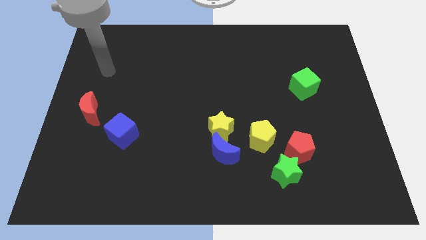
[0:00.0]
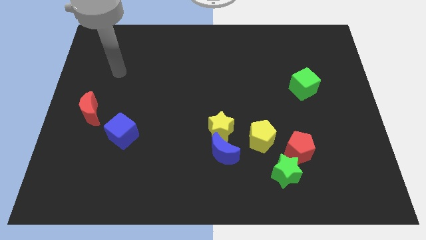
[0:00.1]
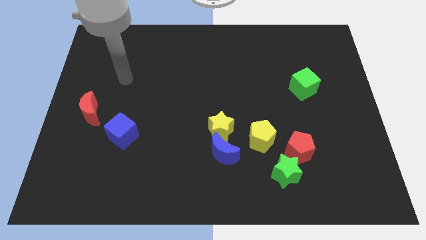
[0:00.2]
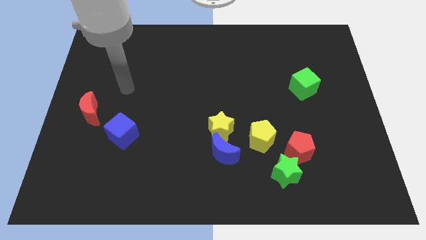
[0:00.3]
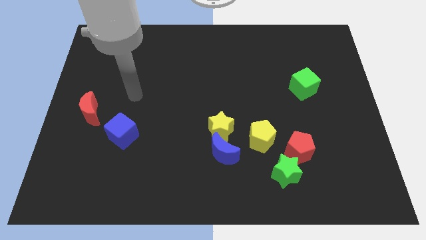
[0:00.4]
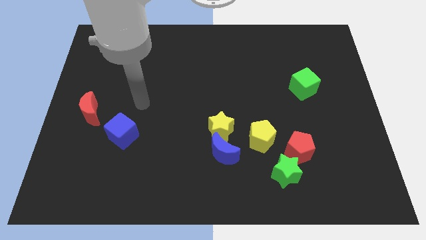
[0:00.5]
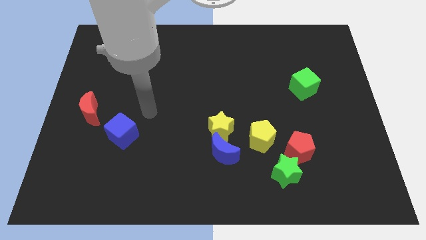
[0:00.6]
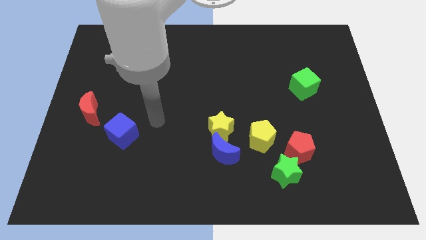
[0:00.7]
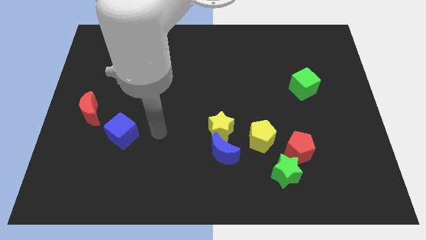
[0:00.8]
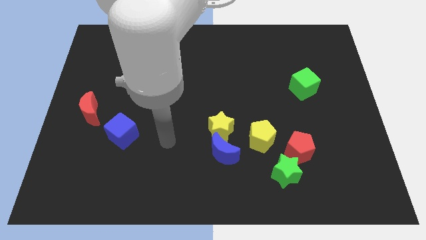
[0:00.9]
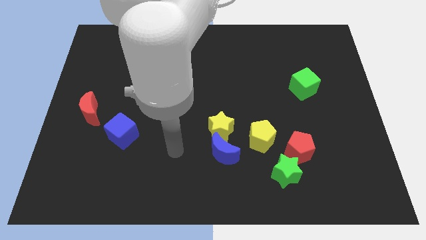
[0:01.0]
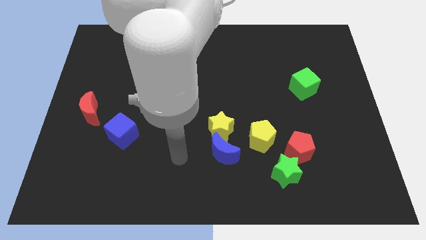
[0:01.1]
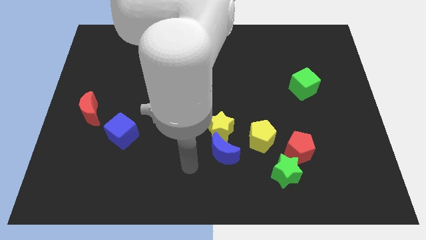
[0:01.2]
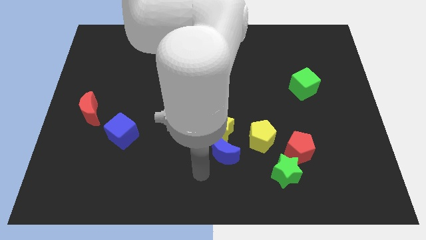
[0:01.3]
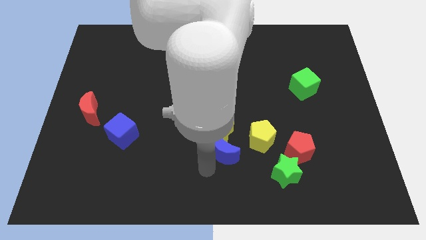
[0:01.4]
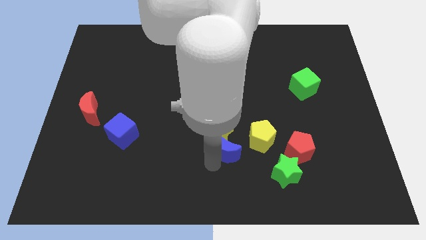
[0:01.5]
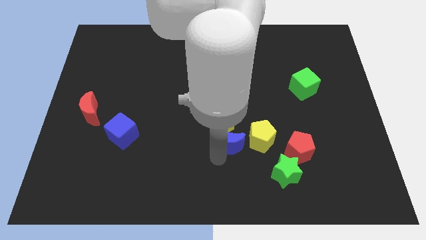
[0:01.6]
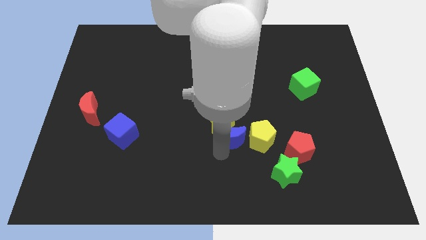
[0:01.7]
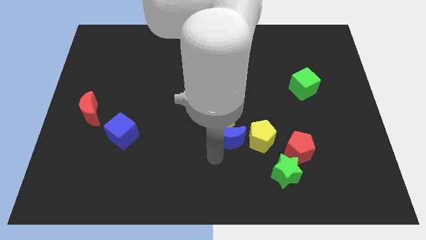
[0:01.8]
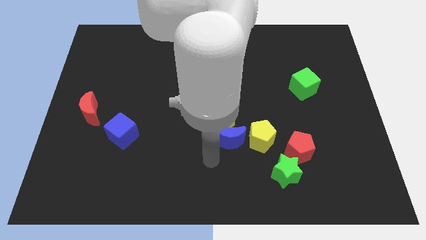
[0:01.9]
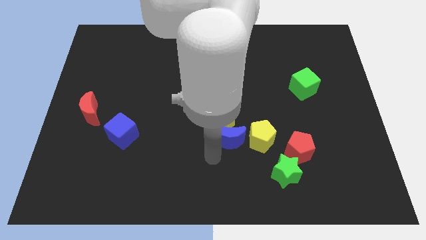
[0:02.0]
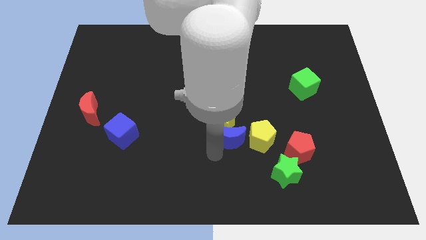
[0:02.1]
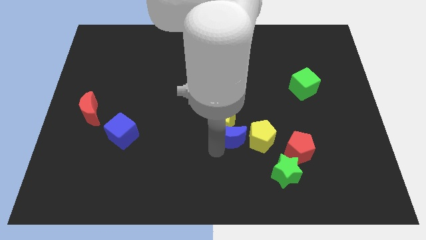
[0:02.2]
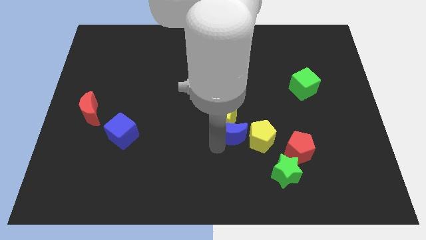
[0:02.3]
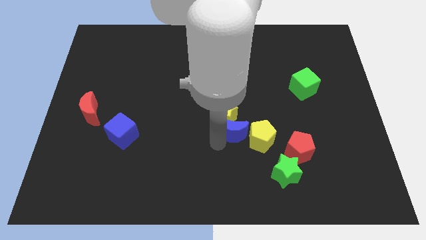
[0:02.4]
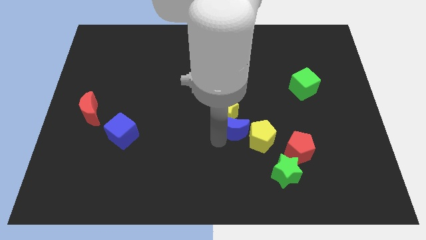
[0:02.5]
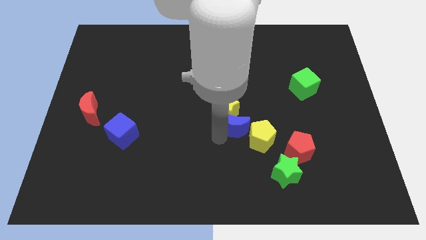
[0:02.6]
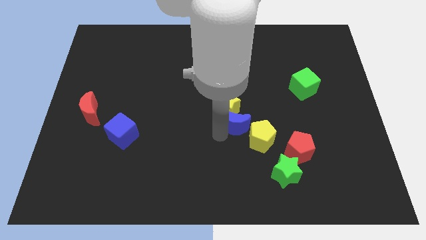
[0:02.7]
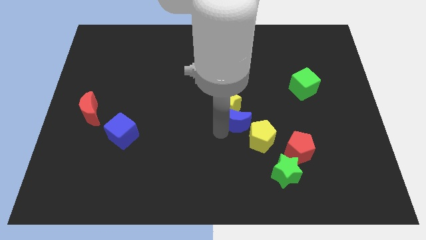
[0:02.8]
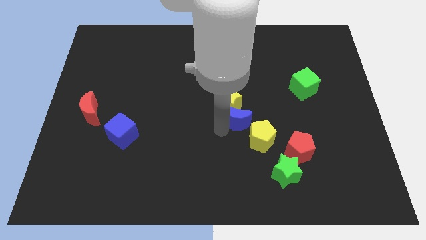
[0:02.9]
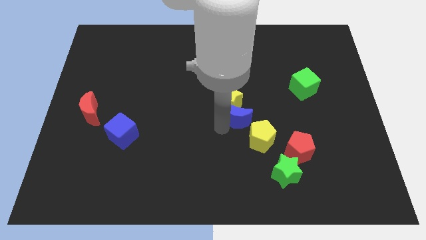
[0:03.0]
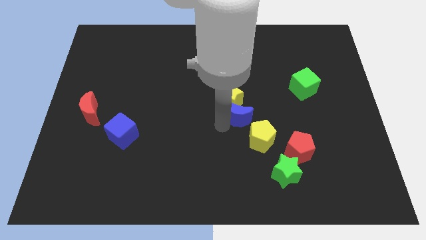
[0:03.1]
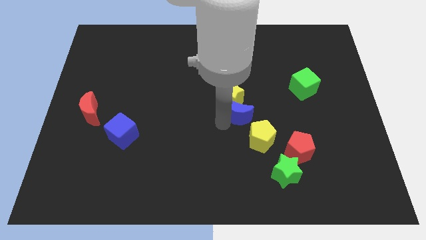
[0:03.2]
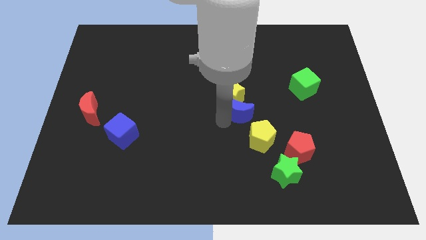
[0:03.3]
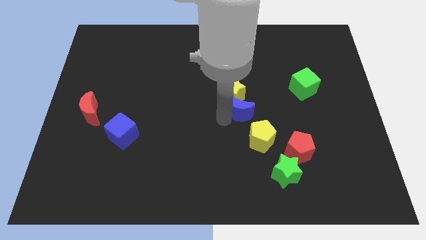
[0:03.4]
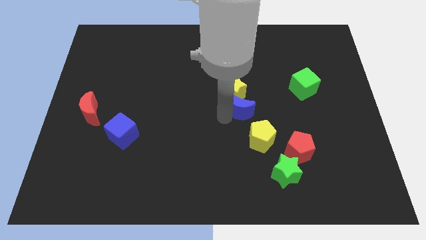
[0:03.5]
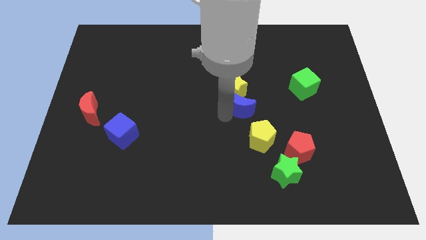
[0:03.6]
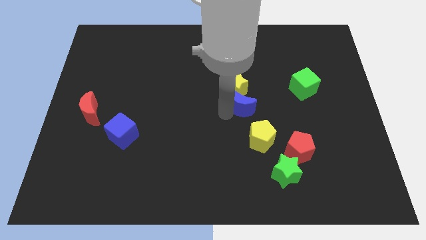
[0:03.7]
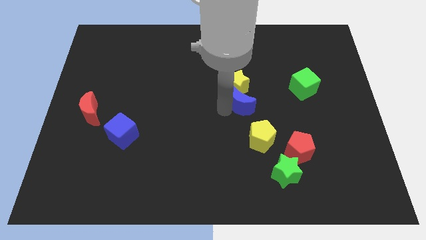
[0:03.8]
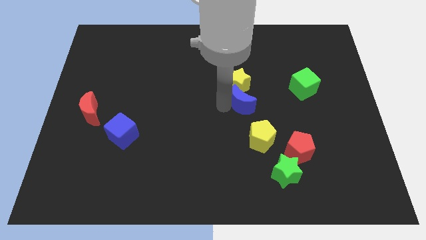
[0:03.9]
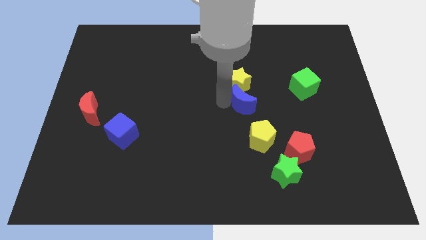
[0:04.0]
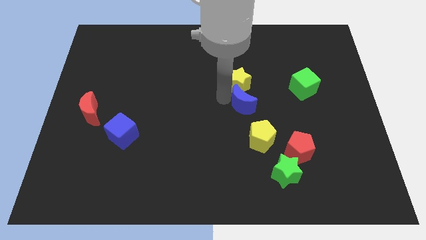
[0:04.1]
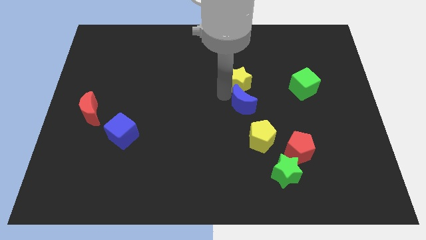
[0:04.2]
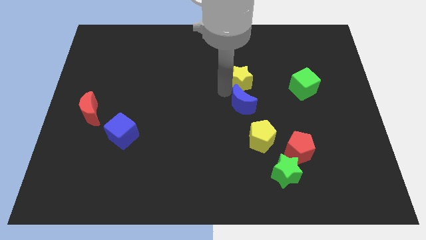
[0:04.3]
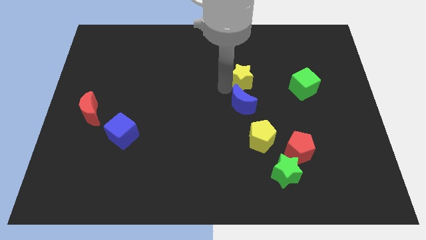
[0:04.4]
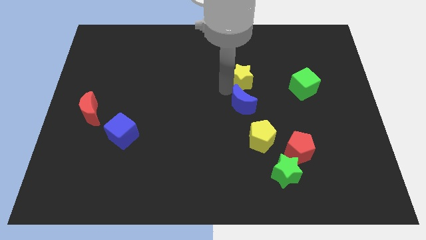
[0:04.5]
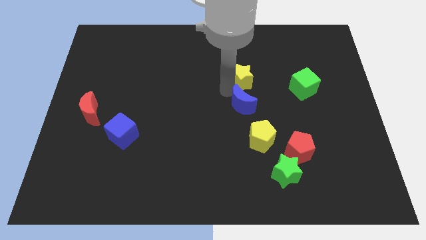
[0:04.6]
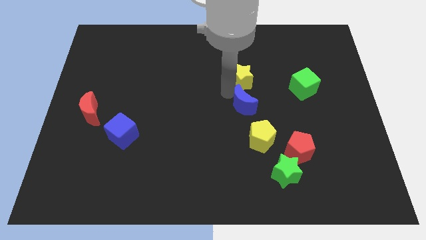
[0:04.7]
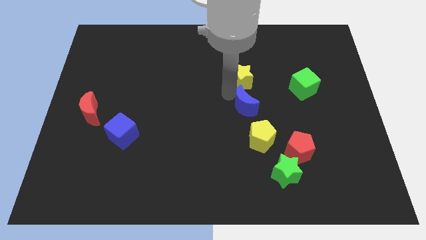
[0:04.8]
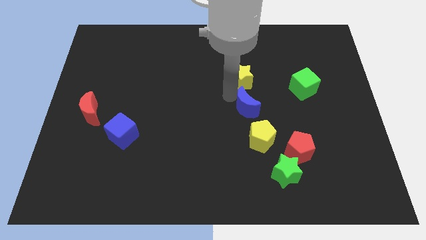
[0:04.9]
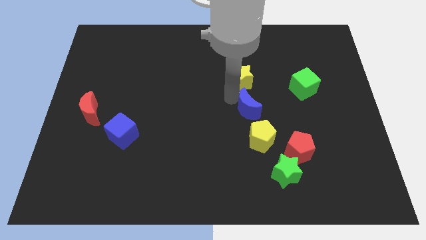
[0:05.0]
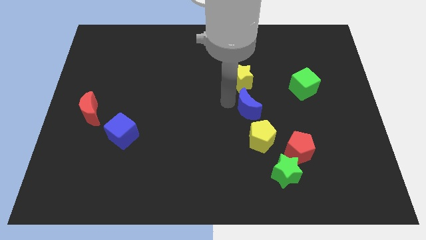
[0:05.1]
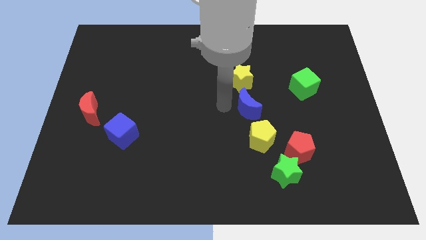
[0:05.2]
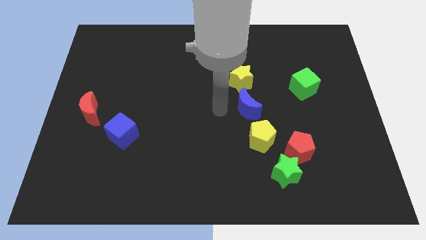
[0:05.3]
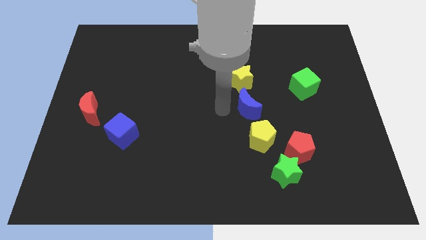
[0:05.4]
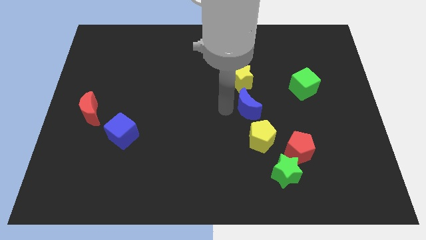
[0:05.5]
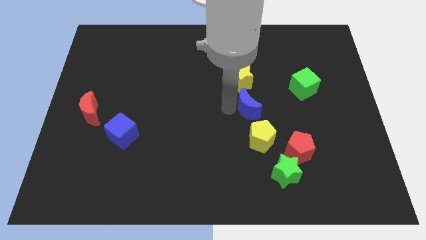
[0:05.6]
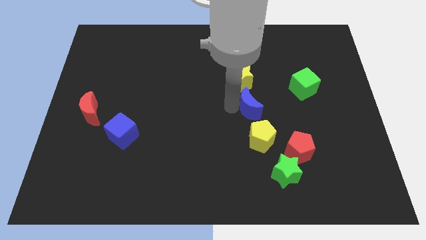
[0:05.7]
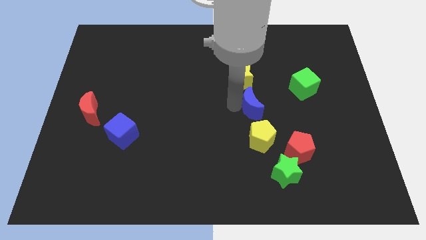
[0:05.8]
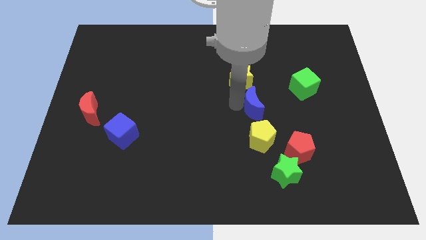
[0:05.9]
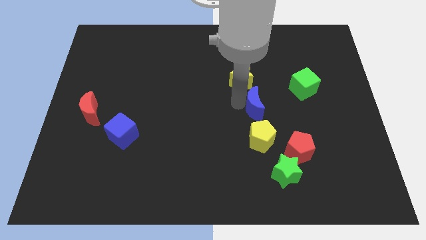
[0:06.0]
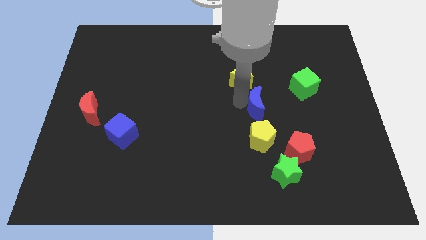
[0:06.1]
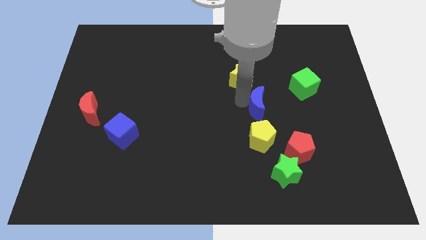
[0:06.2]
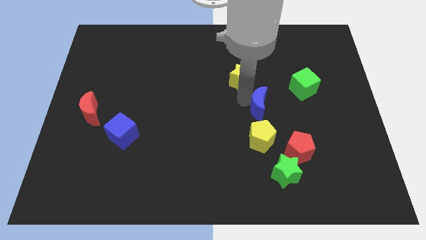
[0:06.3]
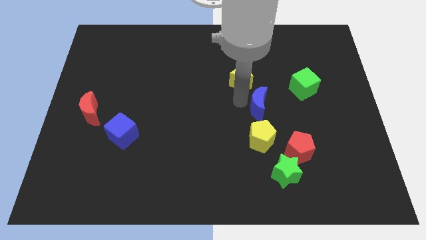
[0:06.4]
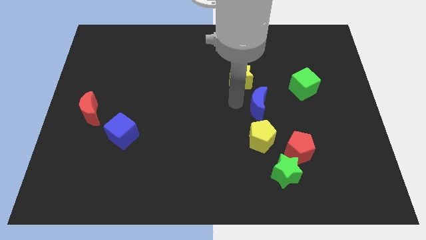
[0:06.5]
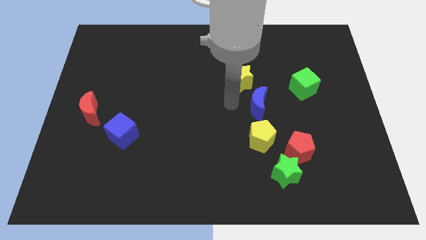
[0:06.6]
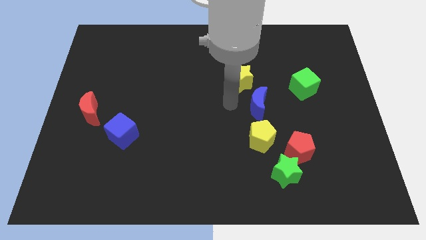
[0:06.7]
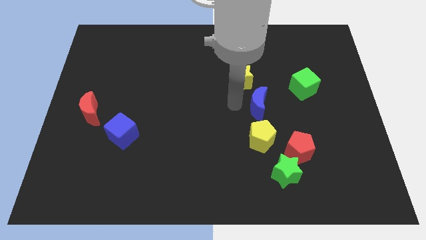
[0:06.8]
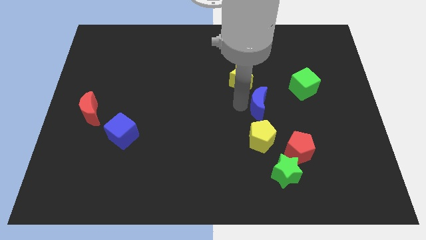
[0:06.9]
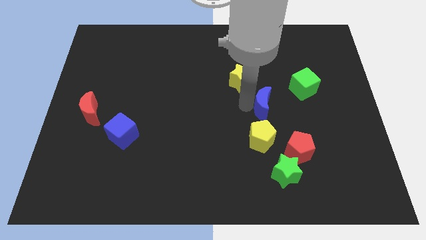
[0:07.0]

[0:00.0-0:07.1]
slide the blue moon to the bottom left of the green cube
